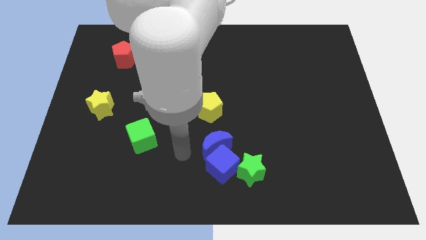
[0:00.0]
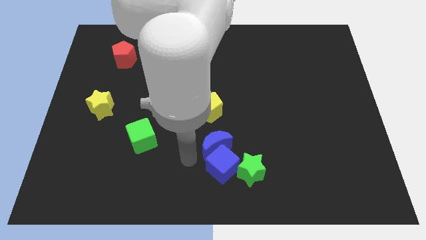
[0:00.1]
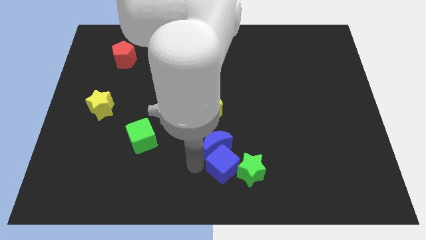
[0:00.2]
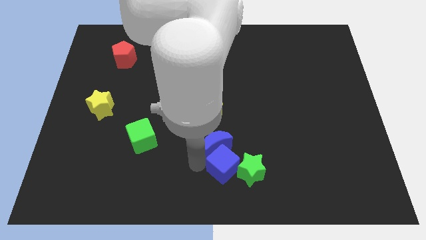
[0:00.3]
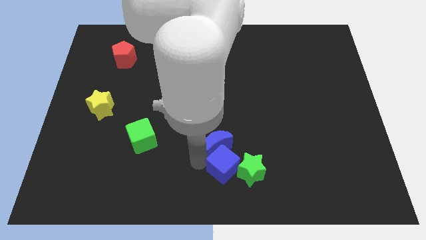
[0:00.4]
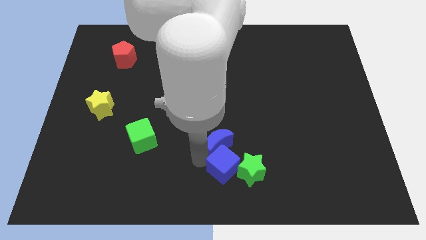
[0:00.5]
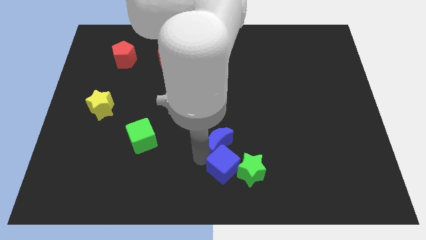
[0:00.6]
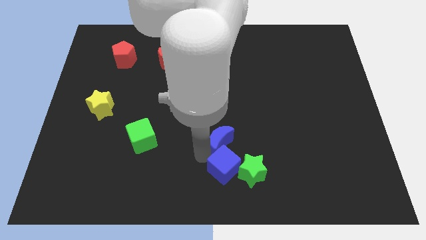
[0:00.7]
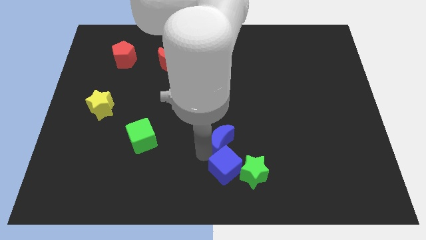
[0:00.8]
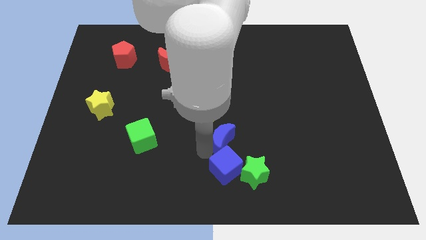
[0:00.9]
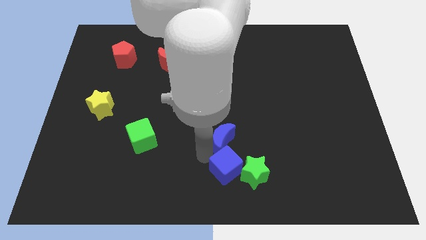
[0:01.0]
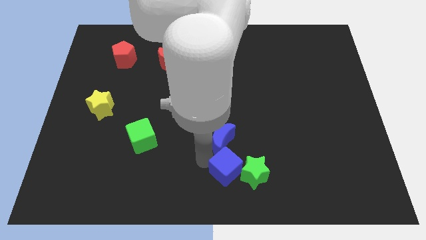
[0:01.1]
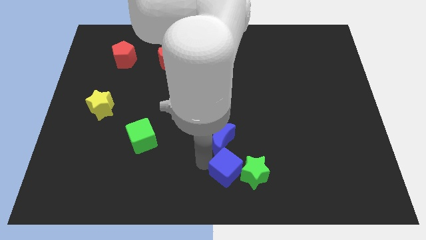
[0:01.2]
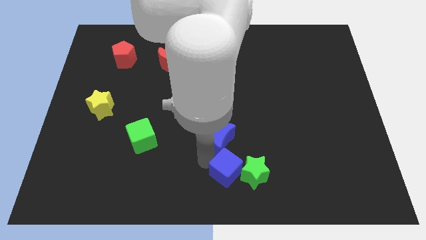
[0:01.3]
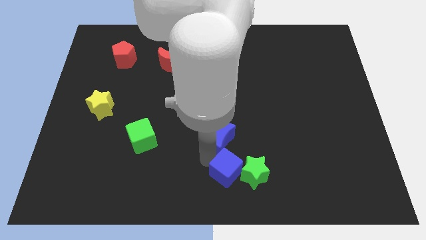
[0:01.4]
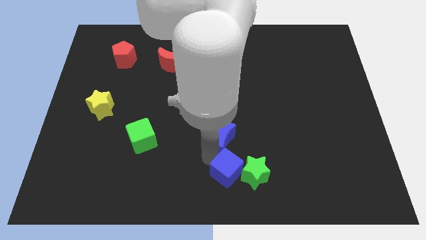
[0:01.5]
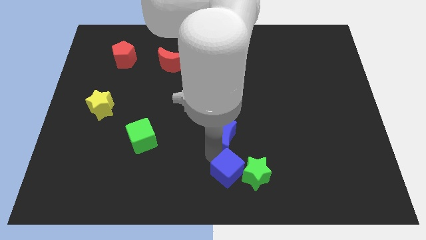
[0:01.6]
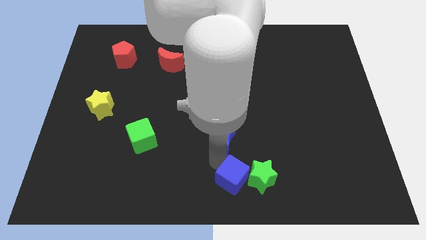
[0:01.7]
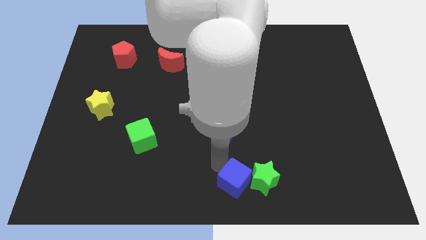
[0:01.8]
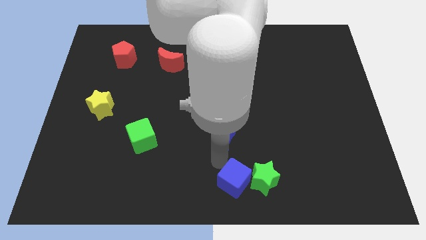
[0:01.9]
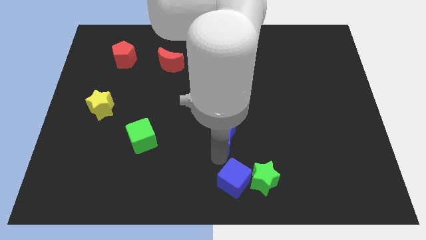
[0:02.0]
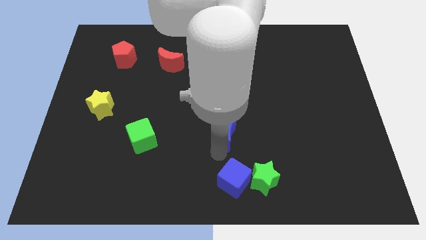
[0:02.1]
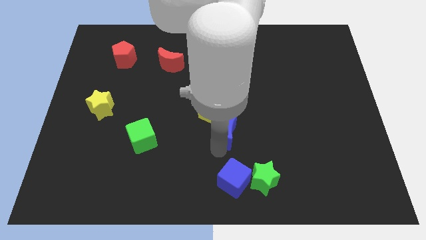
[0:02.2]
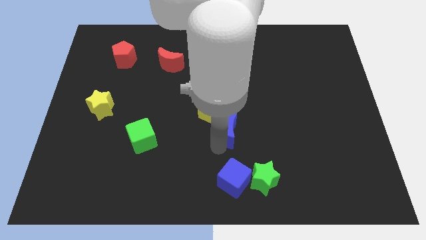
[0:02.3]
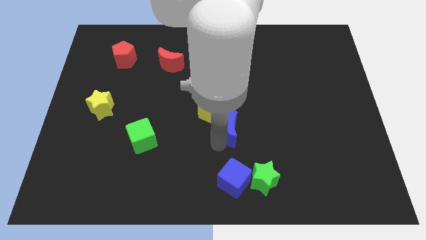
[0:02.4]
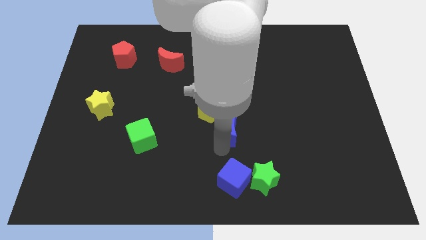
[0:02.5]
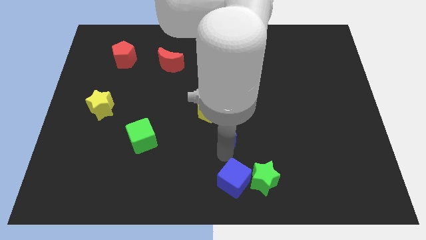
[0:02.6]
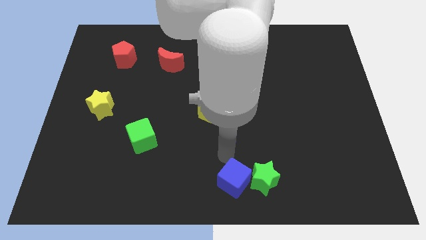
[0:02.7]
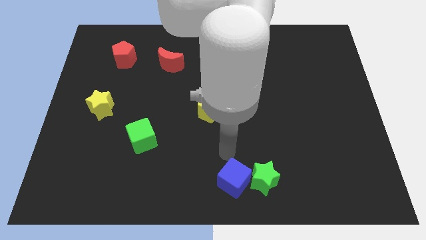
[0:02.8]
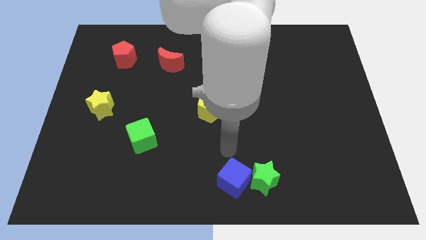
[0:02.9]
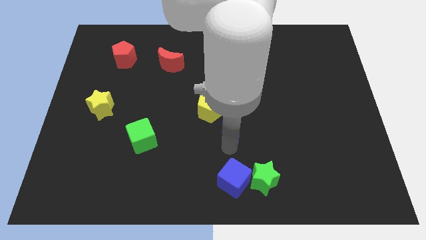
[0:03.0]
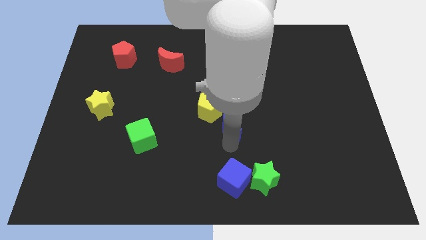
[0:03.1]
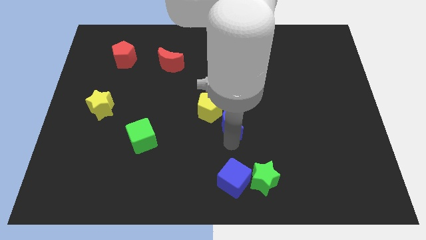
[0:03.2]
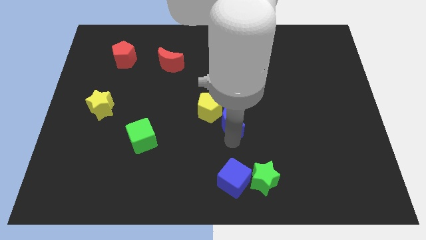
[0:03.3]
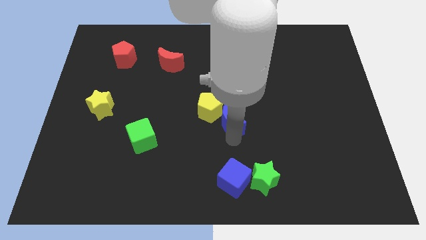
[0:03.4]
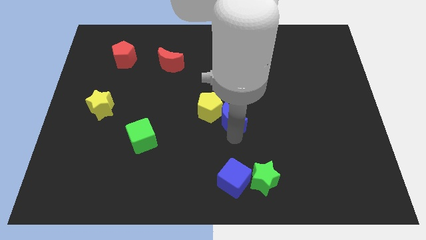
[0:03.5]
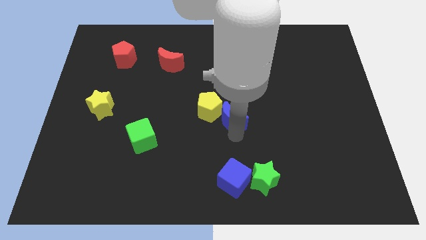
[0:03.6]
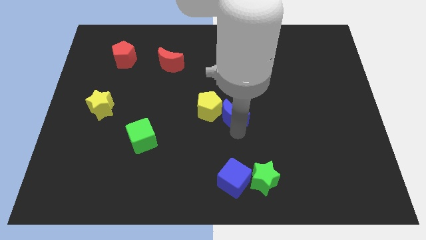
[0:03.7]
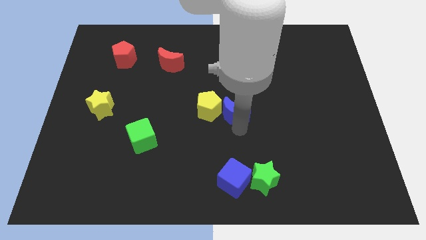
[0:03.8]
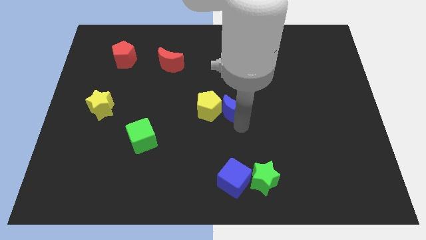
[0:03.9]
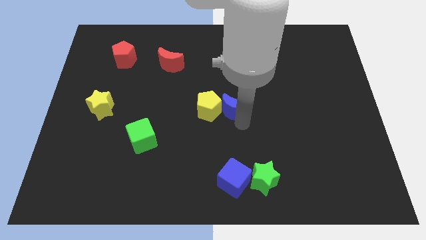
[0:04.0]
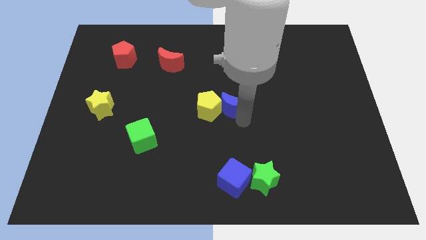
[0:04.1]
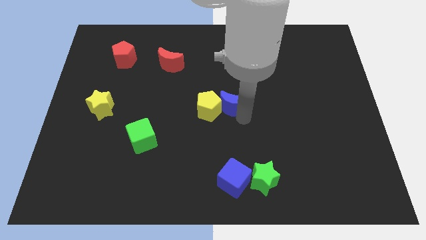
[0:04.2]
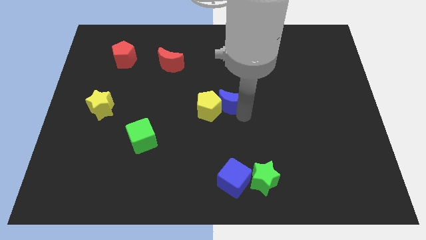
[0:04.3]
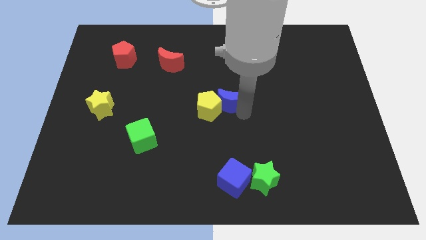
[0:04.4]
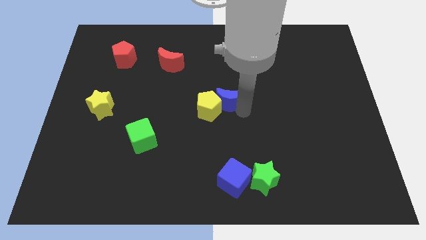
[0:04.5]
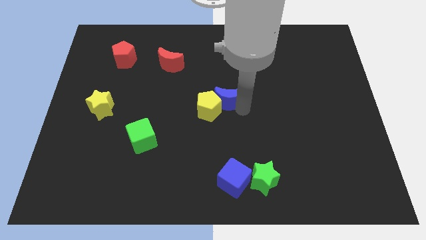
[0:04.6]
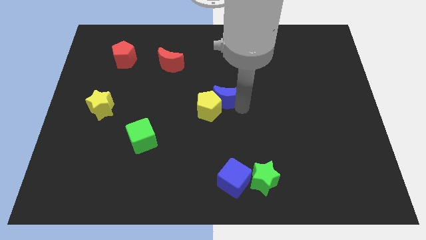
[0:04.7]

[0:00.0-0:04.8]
move the blue moon to the top of the yellow pentagon

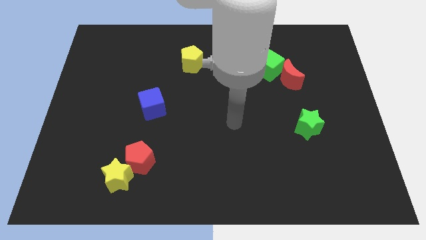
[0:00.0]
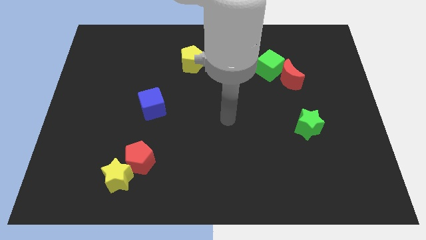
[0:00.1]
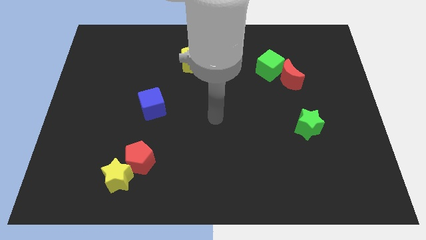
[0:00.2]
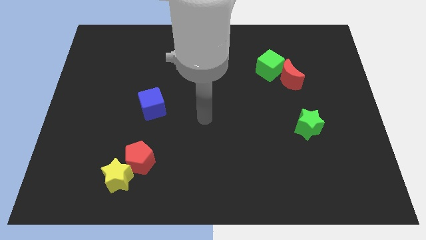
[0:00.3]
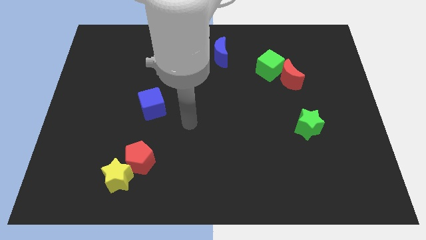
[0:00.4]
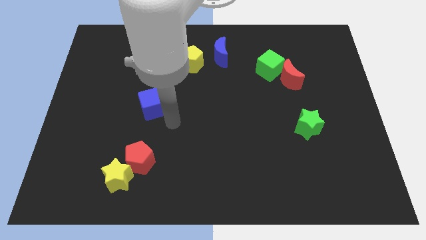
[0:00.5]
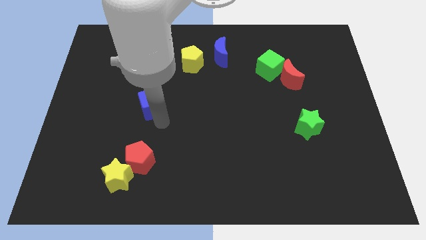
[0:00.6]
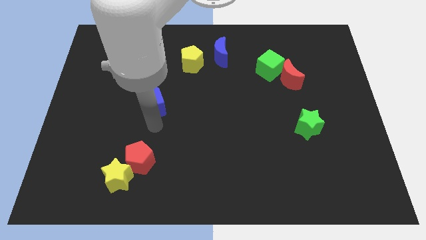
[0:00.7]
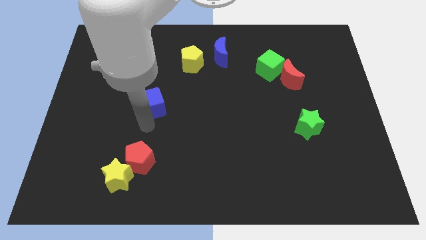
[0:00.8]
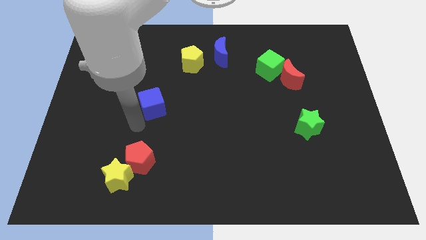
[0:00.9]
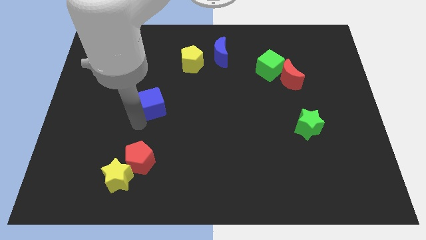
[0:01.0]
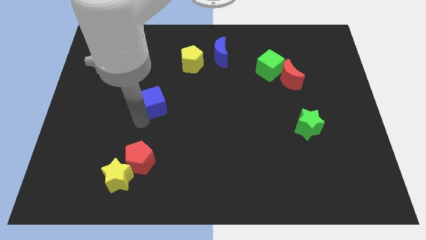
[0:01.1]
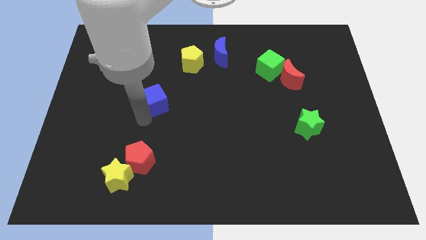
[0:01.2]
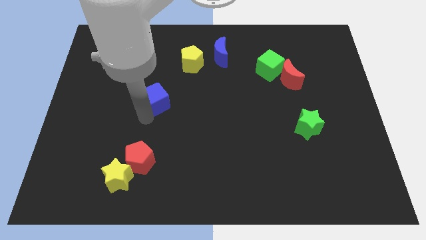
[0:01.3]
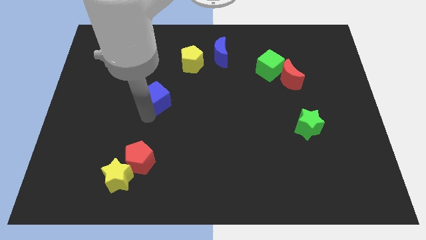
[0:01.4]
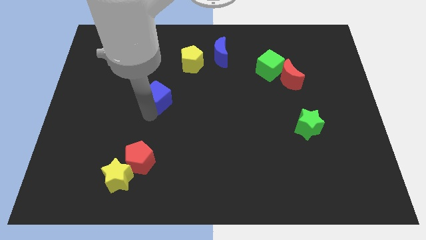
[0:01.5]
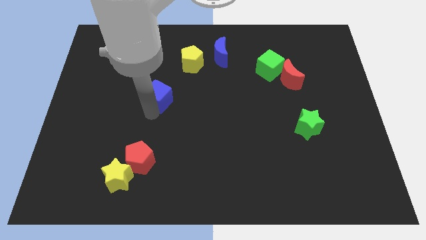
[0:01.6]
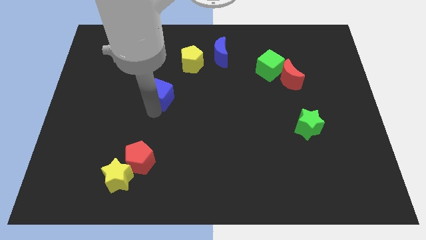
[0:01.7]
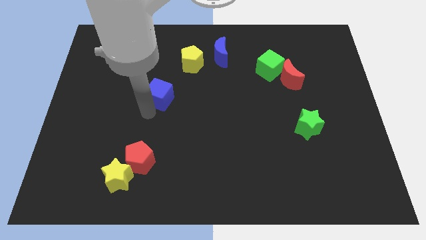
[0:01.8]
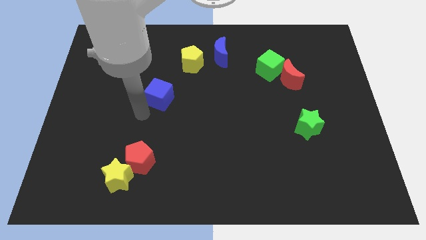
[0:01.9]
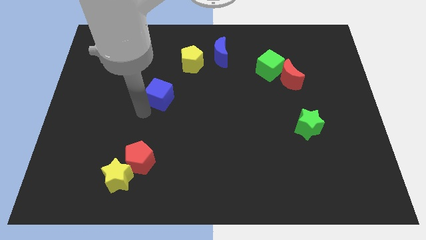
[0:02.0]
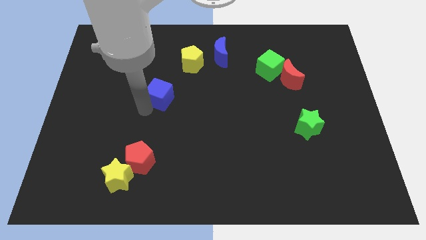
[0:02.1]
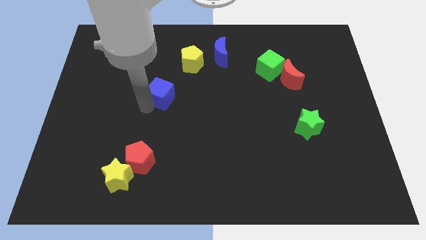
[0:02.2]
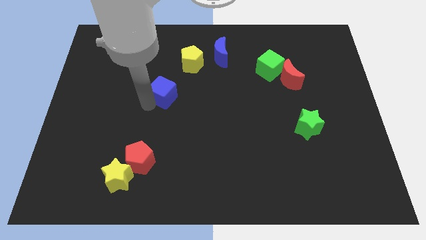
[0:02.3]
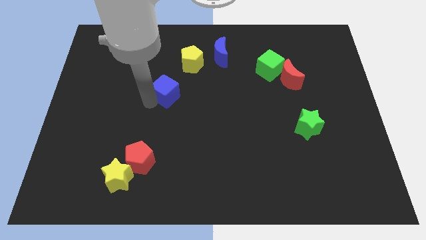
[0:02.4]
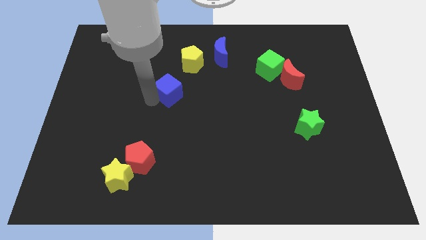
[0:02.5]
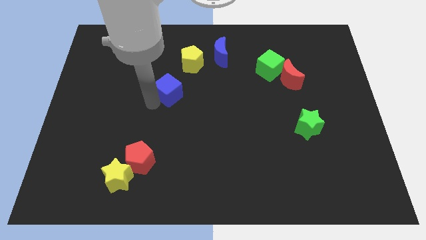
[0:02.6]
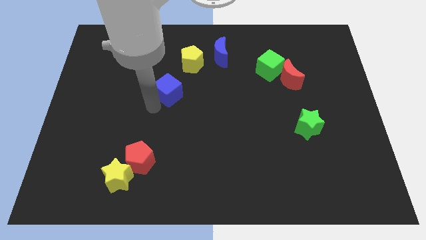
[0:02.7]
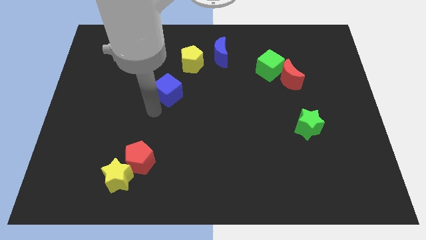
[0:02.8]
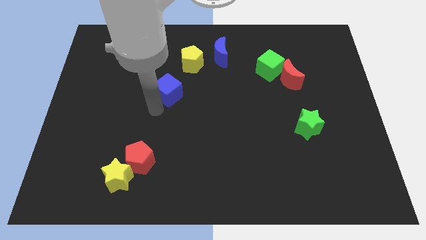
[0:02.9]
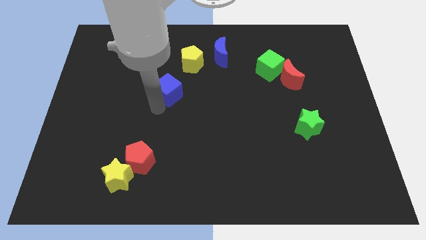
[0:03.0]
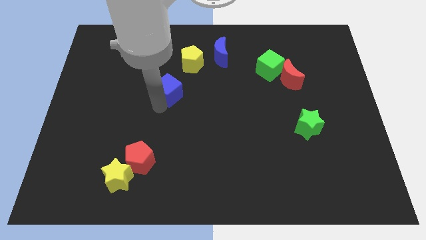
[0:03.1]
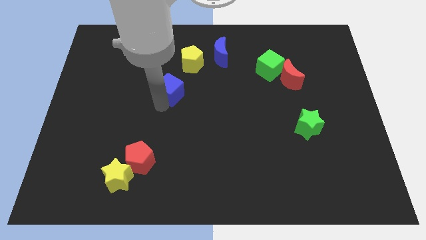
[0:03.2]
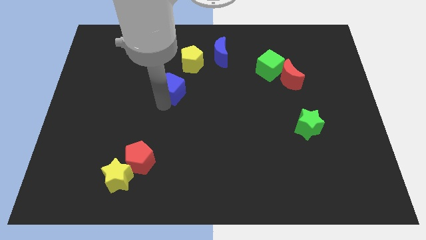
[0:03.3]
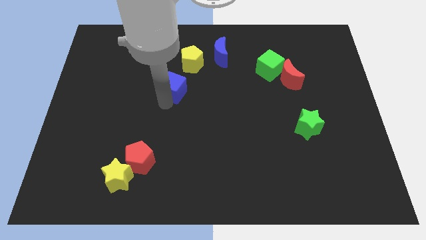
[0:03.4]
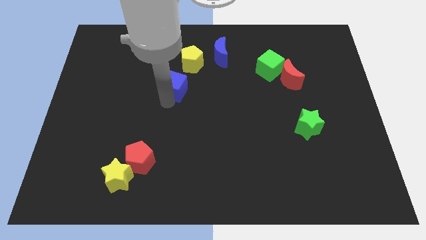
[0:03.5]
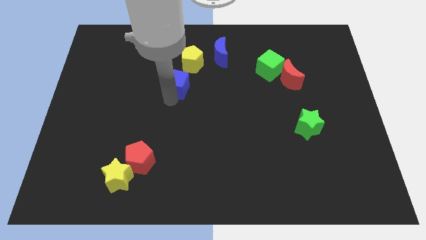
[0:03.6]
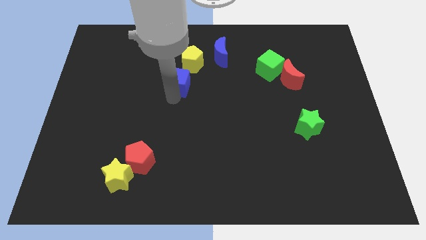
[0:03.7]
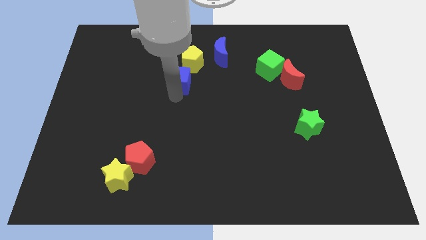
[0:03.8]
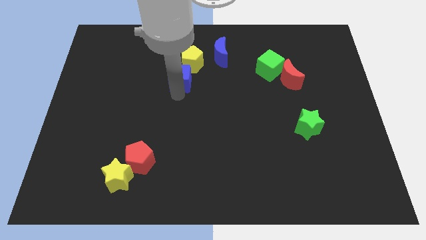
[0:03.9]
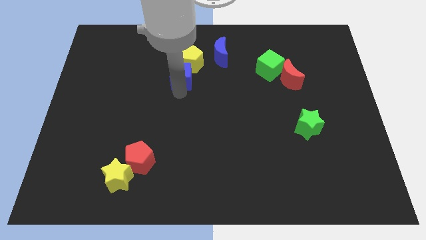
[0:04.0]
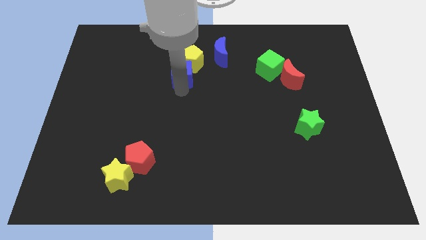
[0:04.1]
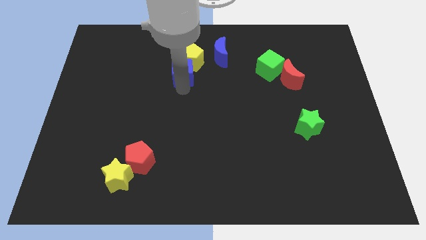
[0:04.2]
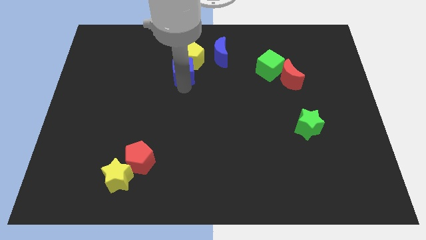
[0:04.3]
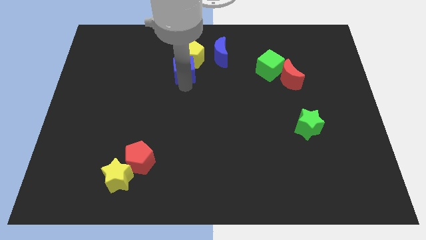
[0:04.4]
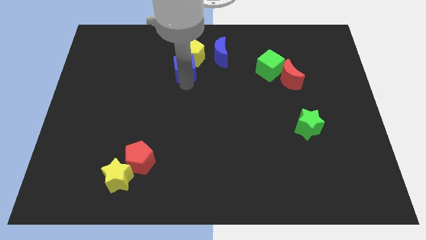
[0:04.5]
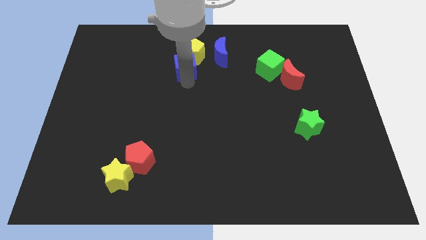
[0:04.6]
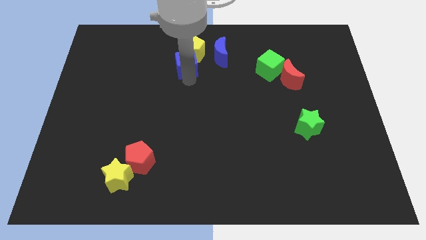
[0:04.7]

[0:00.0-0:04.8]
move the blue cube to the left of the blue moon
